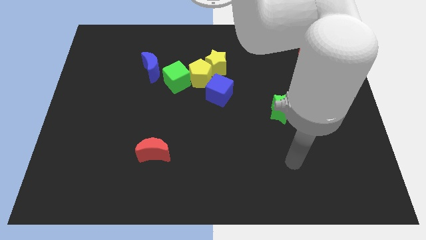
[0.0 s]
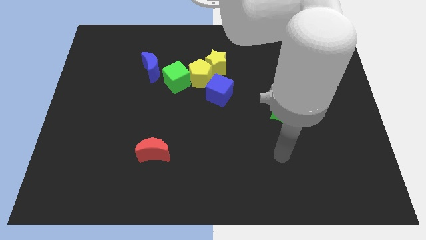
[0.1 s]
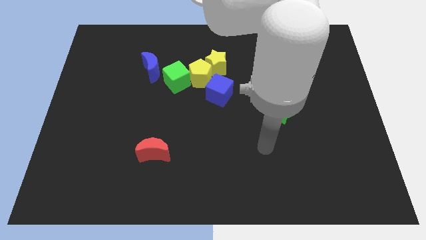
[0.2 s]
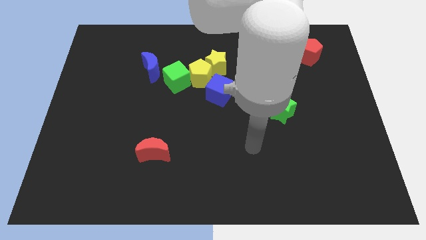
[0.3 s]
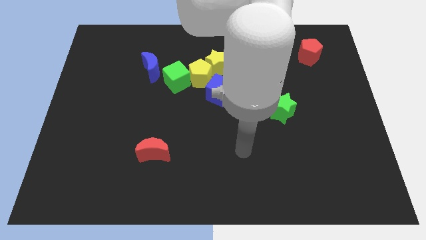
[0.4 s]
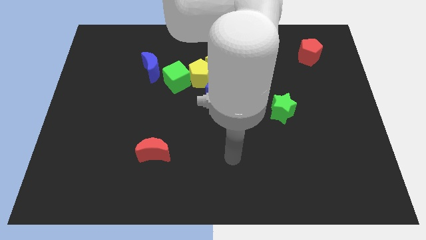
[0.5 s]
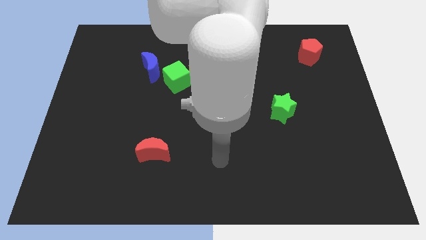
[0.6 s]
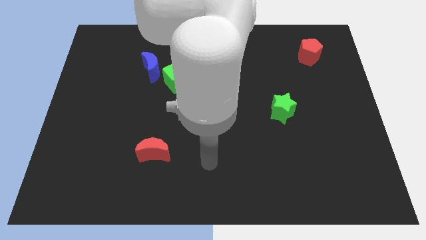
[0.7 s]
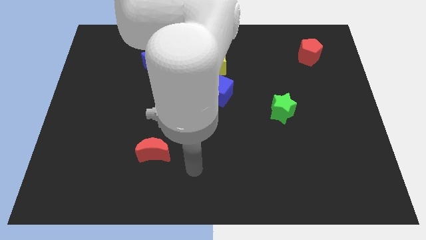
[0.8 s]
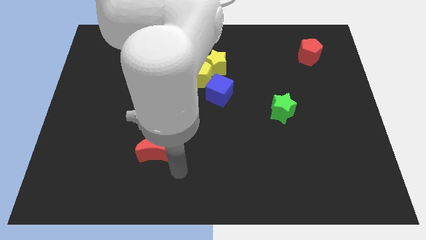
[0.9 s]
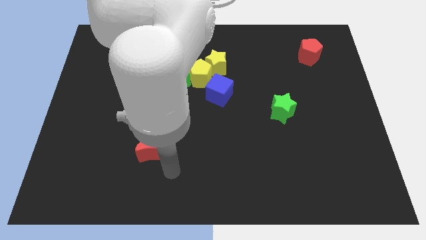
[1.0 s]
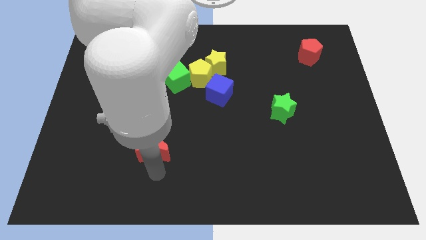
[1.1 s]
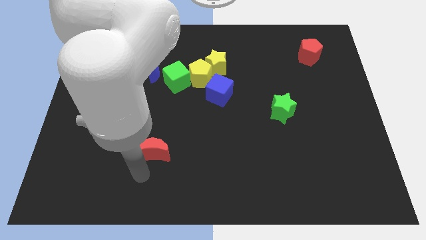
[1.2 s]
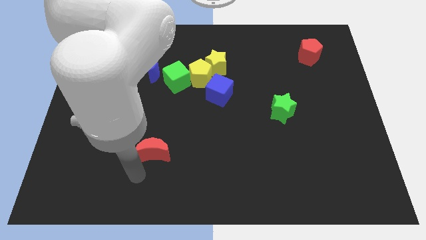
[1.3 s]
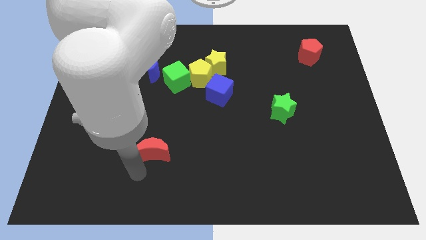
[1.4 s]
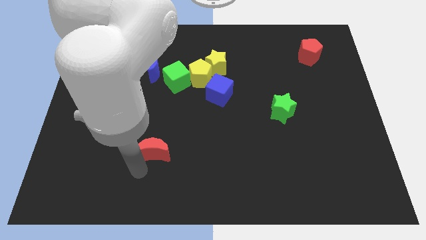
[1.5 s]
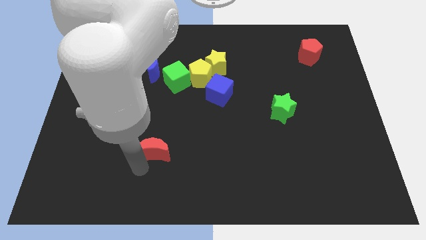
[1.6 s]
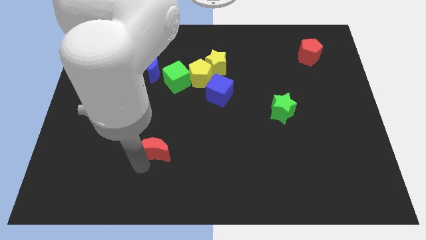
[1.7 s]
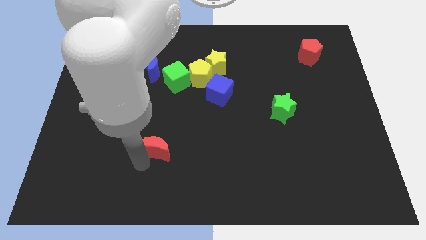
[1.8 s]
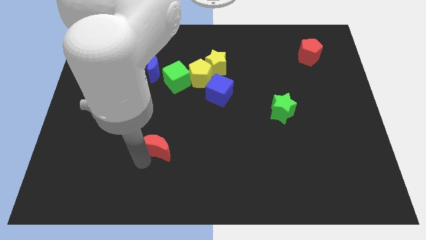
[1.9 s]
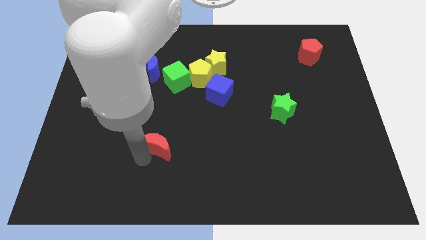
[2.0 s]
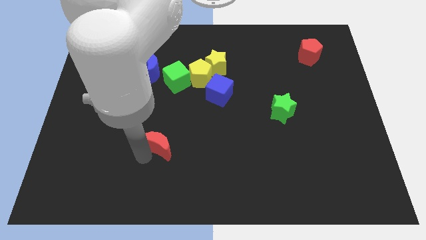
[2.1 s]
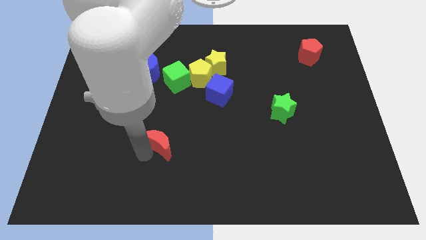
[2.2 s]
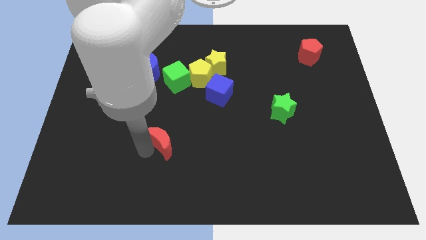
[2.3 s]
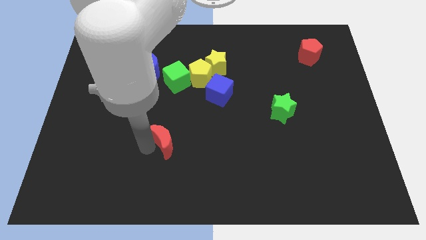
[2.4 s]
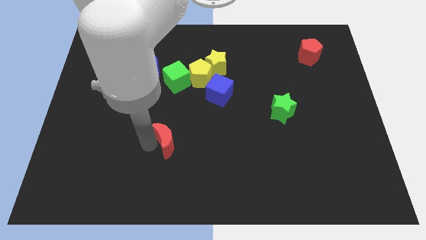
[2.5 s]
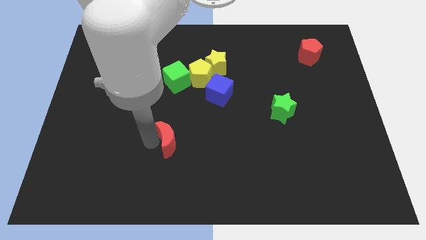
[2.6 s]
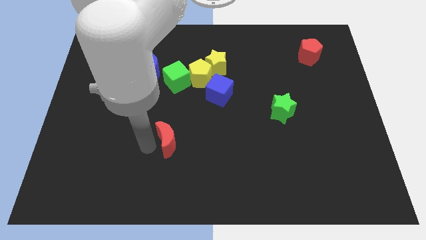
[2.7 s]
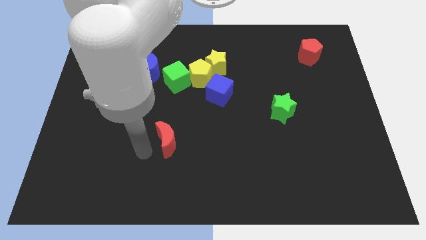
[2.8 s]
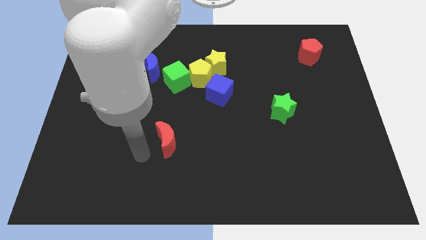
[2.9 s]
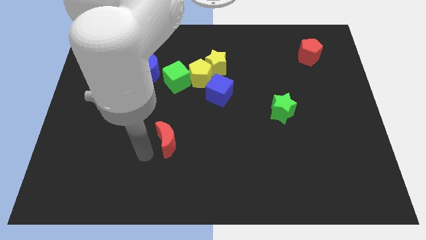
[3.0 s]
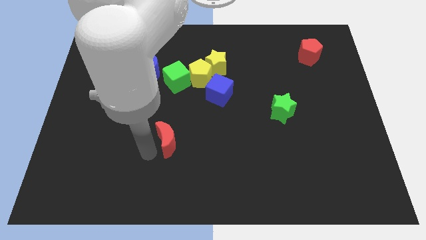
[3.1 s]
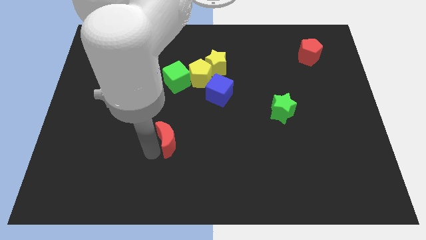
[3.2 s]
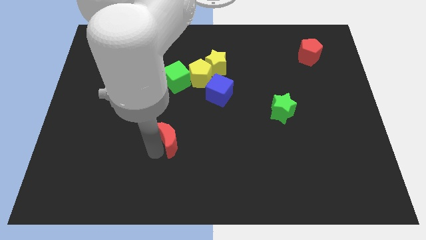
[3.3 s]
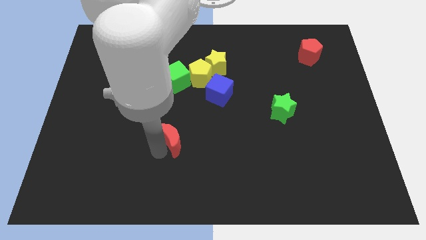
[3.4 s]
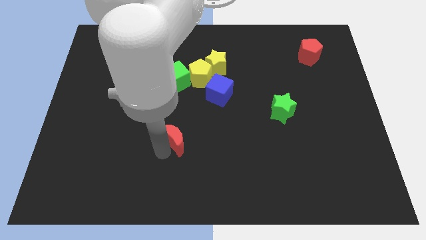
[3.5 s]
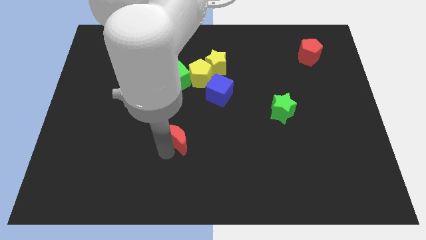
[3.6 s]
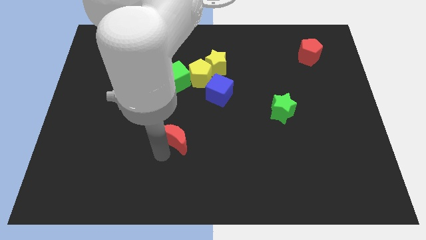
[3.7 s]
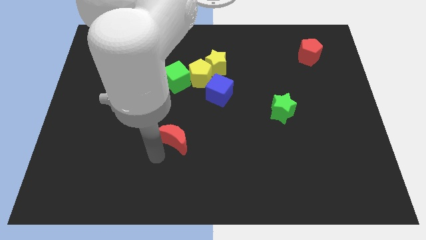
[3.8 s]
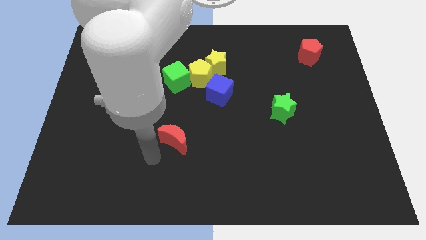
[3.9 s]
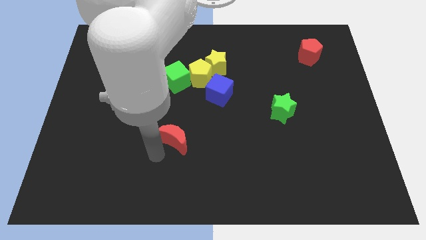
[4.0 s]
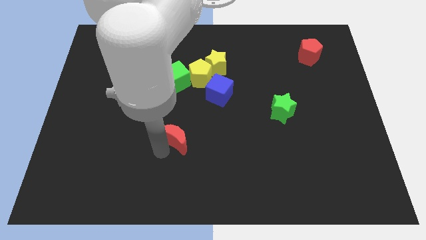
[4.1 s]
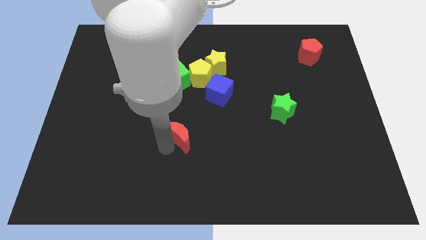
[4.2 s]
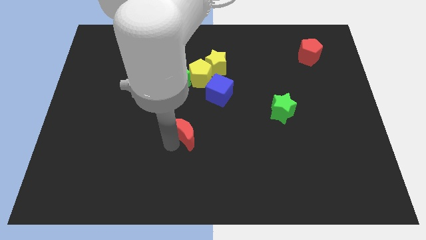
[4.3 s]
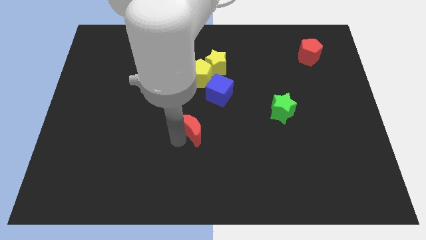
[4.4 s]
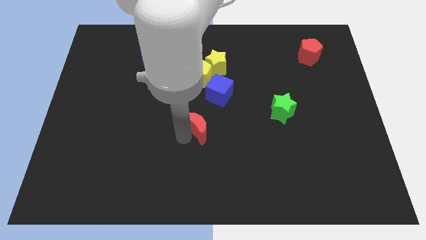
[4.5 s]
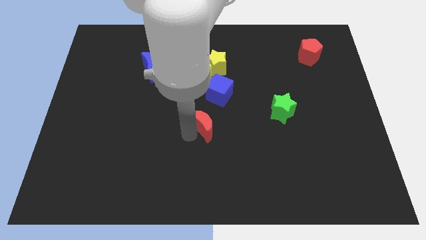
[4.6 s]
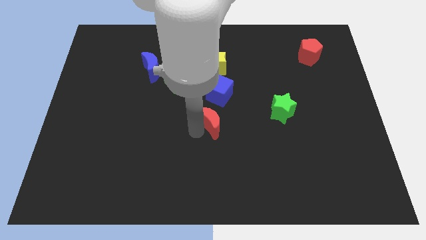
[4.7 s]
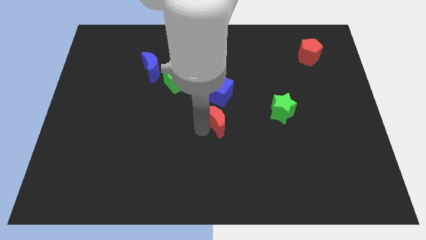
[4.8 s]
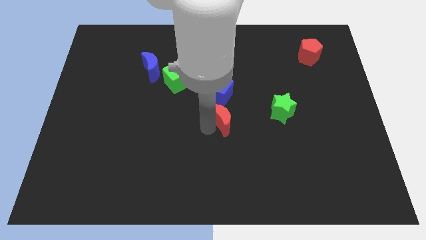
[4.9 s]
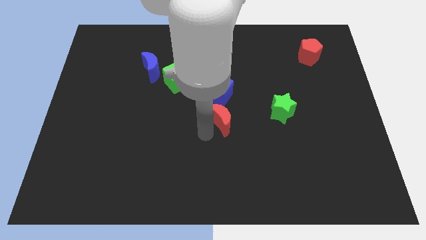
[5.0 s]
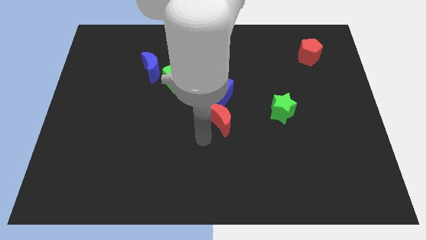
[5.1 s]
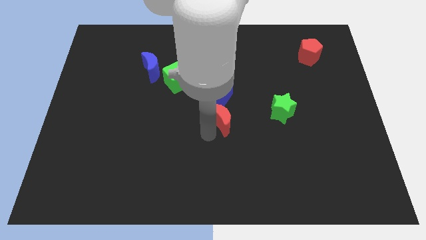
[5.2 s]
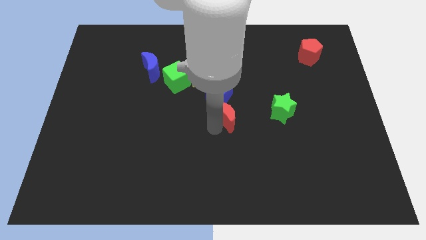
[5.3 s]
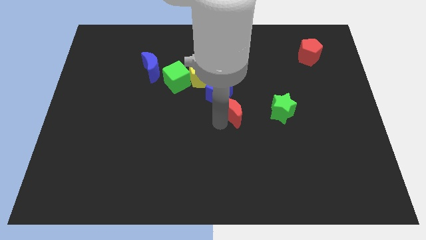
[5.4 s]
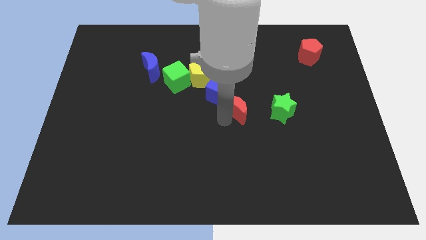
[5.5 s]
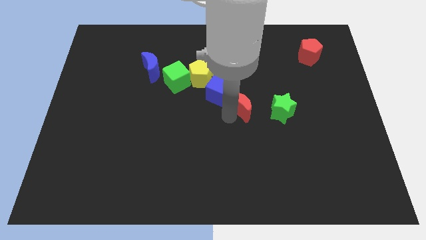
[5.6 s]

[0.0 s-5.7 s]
move the red moon just right of the blue cube

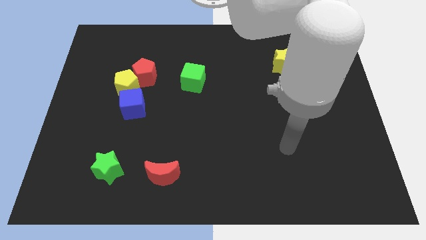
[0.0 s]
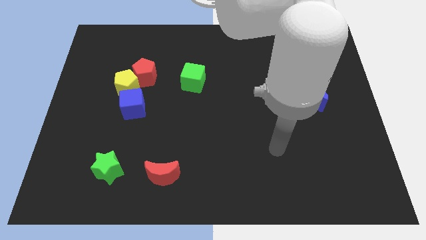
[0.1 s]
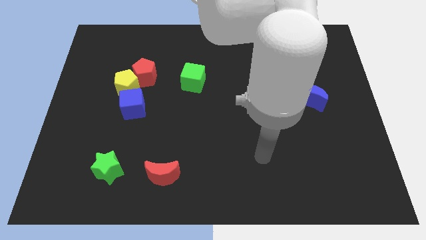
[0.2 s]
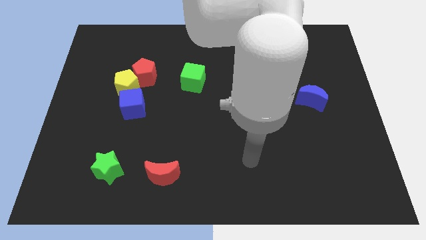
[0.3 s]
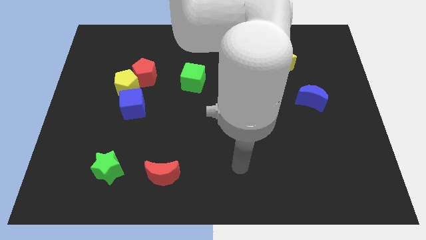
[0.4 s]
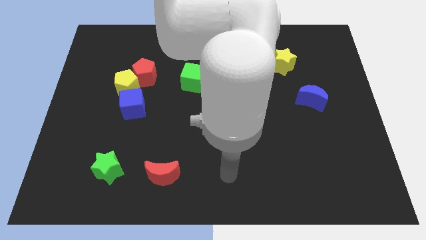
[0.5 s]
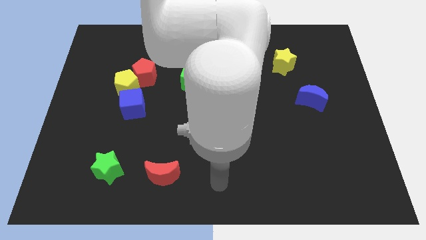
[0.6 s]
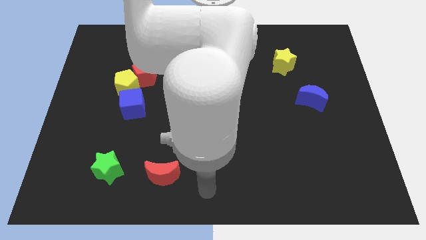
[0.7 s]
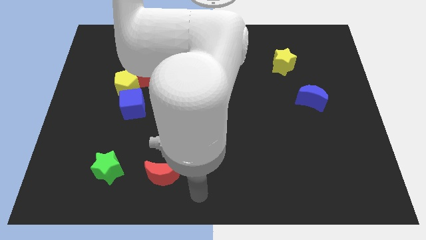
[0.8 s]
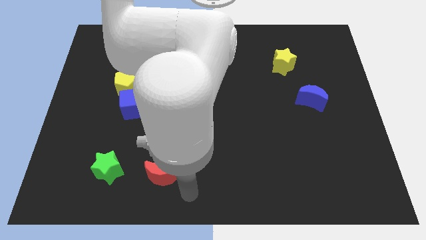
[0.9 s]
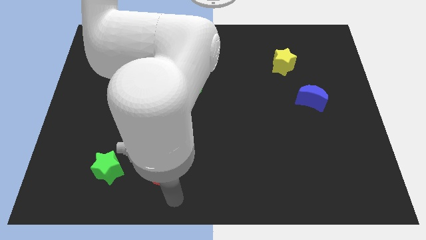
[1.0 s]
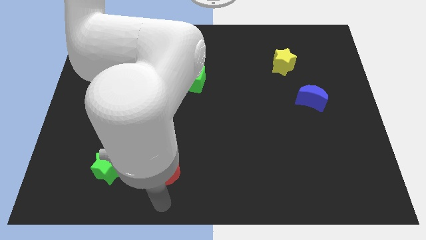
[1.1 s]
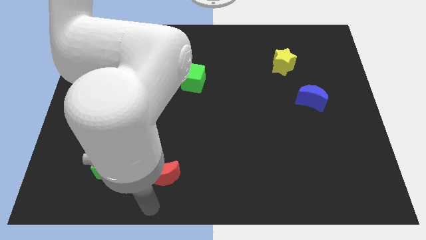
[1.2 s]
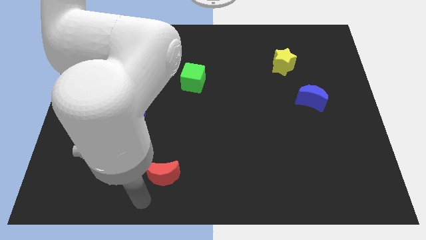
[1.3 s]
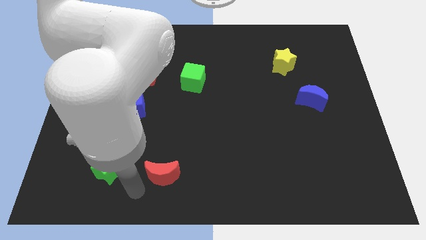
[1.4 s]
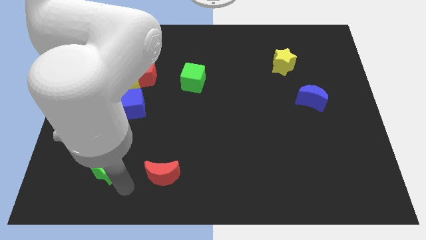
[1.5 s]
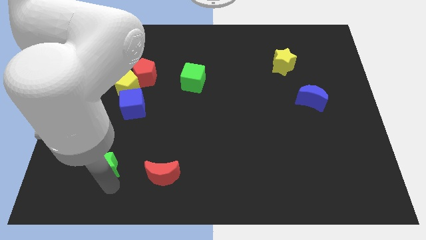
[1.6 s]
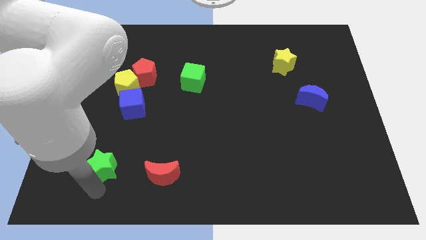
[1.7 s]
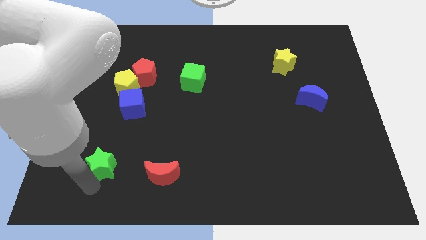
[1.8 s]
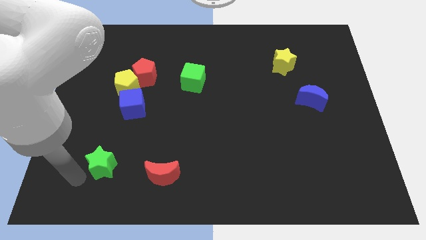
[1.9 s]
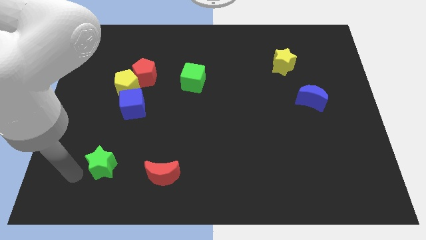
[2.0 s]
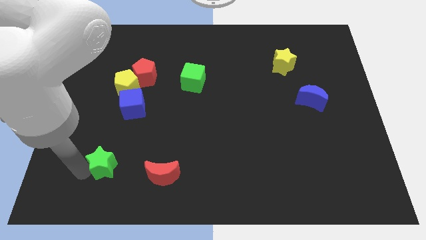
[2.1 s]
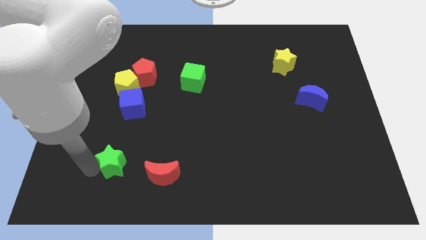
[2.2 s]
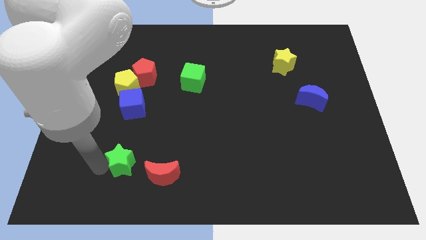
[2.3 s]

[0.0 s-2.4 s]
put the green star to the top left of the red moon

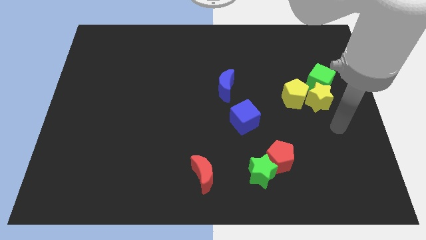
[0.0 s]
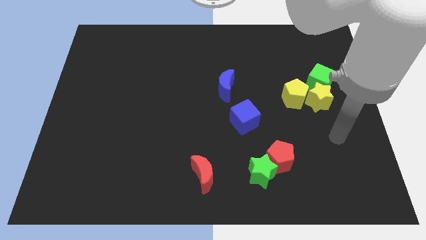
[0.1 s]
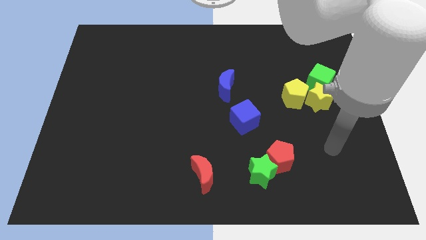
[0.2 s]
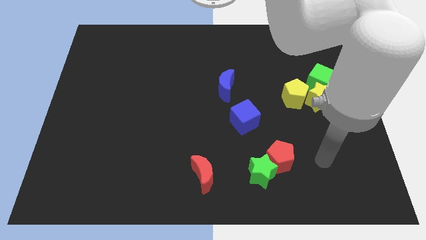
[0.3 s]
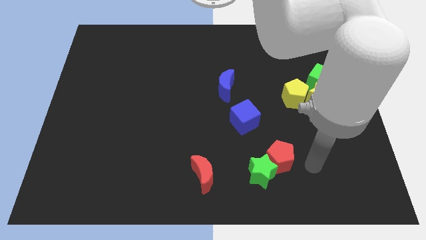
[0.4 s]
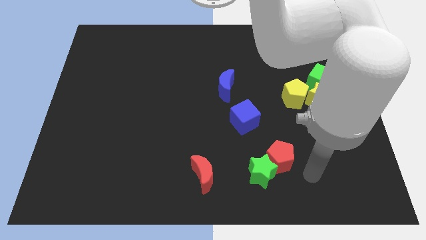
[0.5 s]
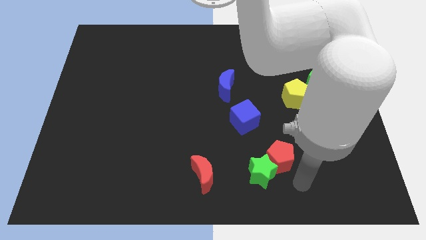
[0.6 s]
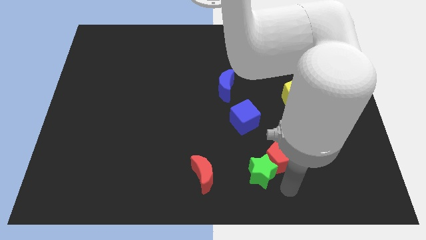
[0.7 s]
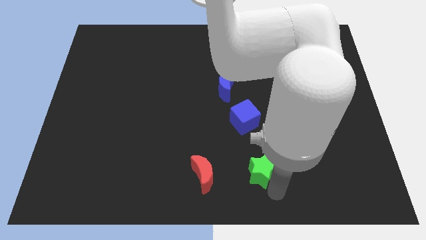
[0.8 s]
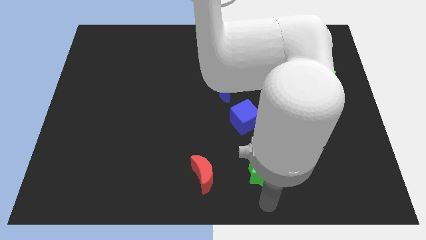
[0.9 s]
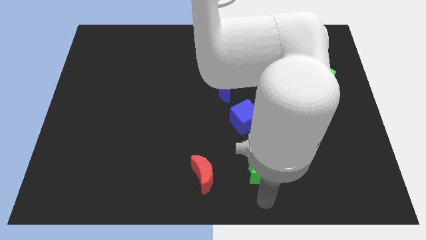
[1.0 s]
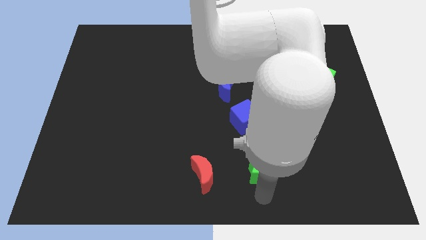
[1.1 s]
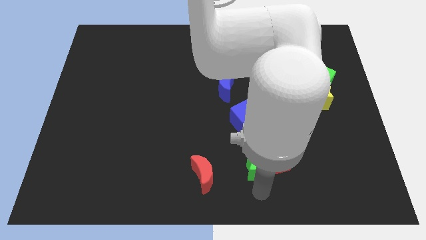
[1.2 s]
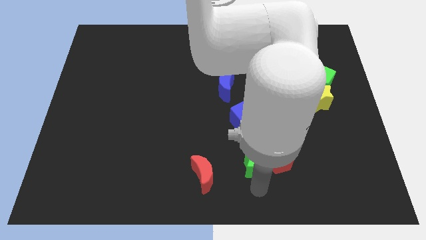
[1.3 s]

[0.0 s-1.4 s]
move the green star to the top left of the red pentagon
